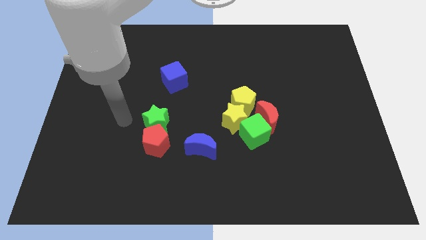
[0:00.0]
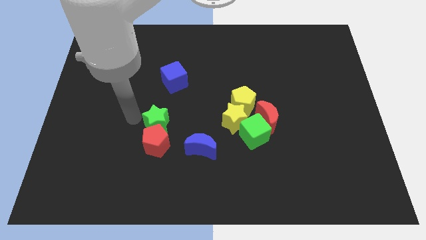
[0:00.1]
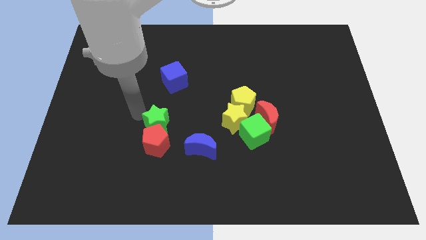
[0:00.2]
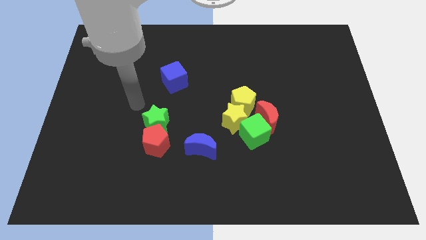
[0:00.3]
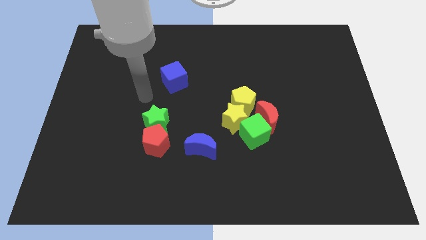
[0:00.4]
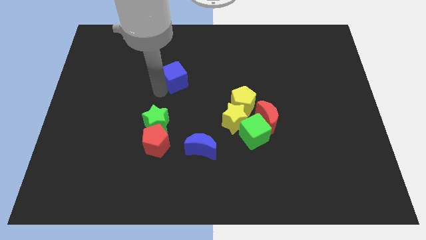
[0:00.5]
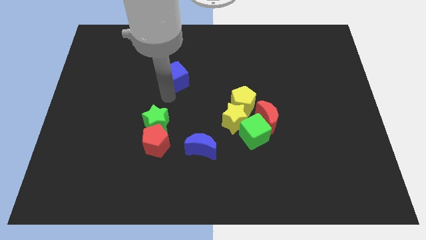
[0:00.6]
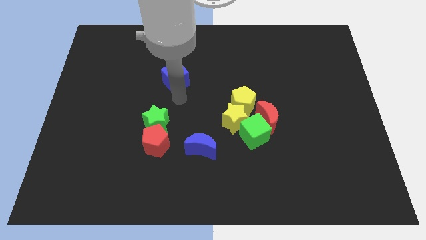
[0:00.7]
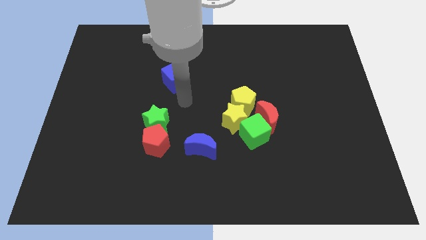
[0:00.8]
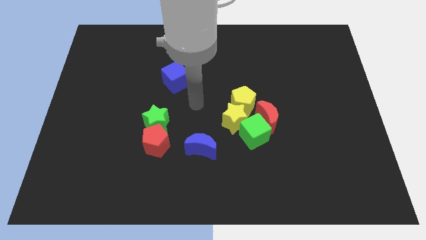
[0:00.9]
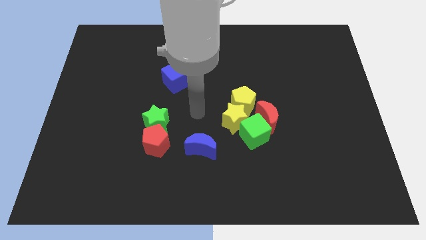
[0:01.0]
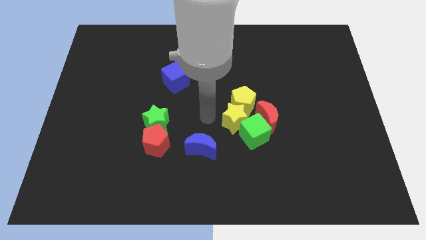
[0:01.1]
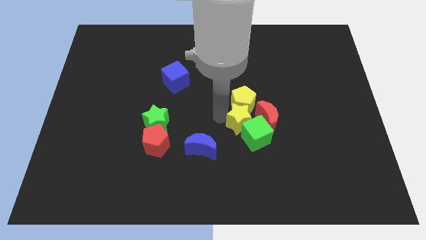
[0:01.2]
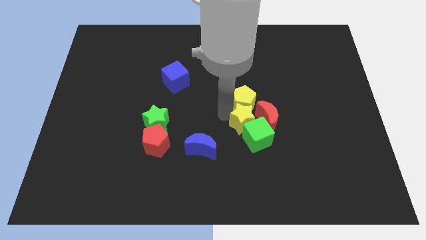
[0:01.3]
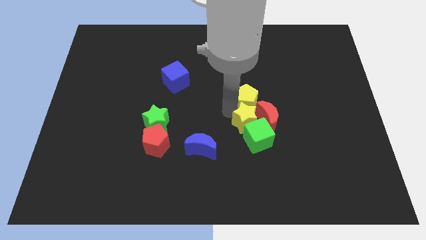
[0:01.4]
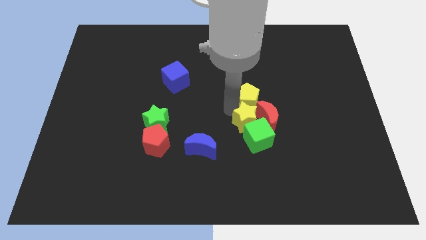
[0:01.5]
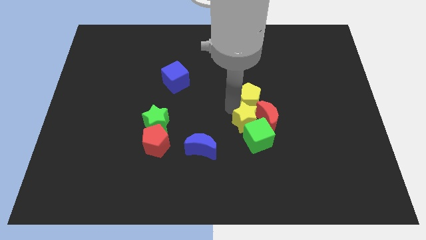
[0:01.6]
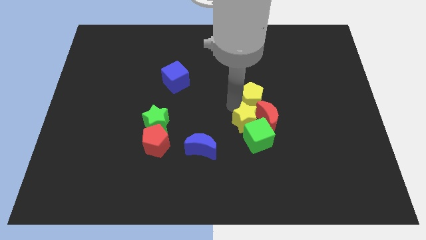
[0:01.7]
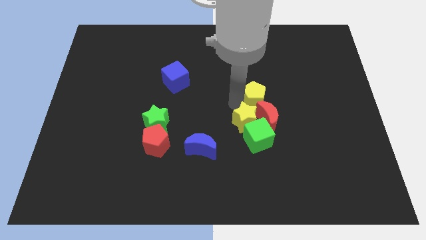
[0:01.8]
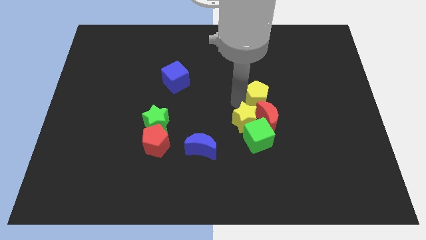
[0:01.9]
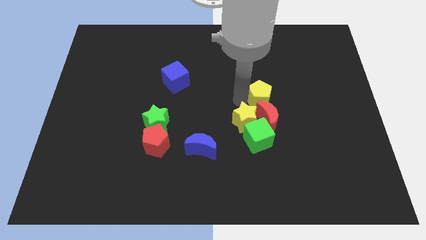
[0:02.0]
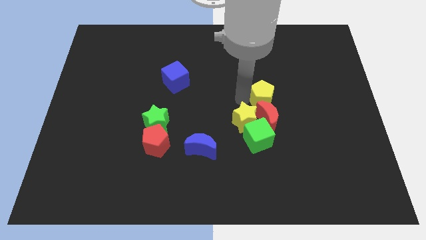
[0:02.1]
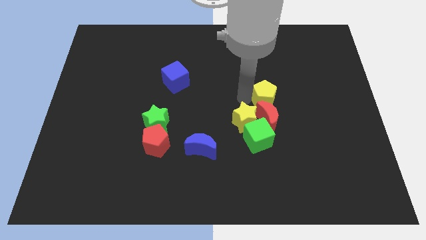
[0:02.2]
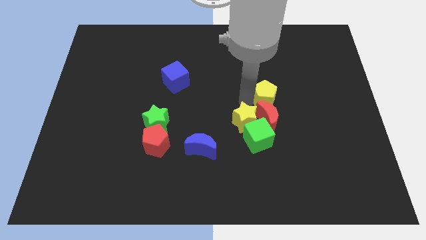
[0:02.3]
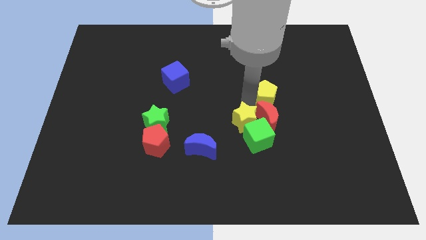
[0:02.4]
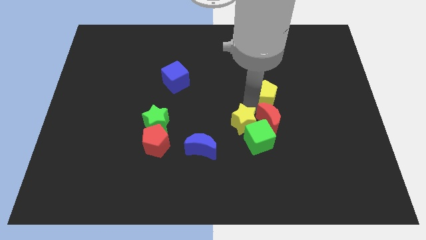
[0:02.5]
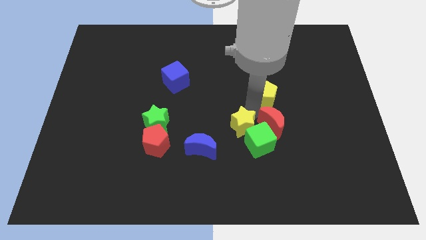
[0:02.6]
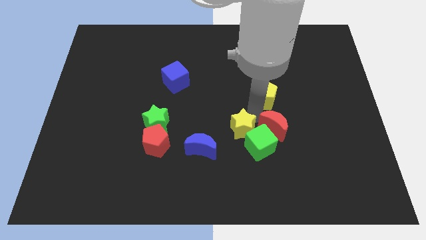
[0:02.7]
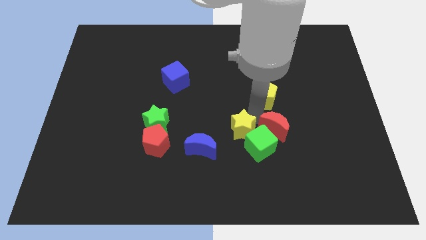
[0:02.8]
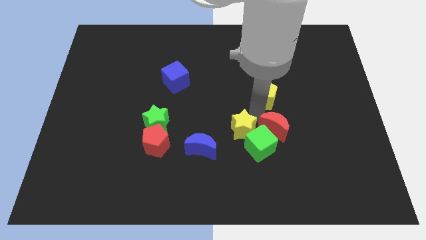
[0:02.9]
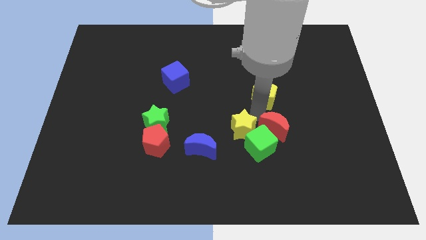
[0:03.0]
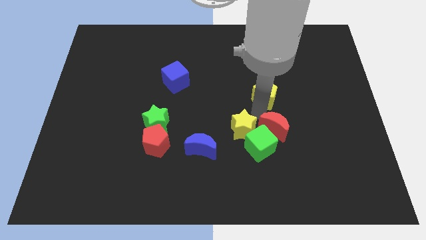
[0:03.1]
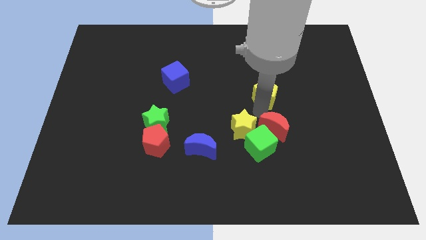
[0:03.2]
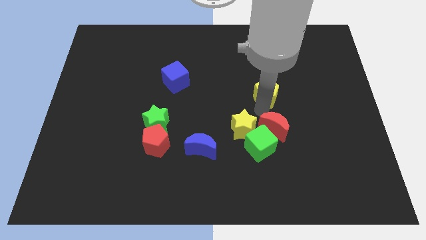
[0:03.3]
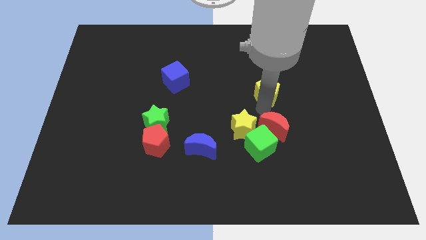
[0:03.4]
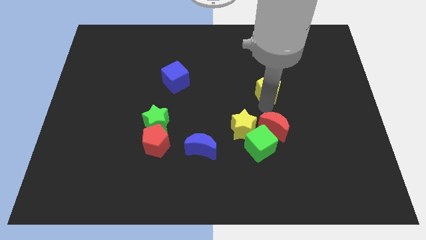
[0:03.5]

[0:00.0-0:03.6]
push the yellow pentagon a little bit up and to the right

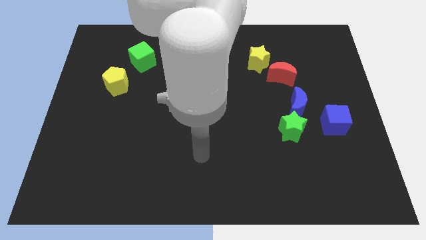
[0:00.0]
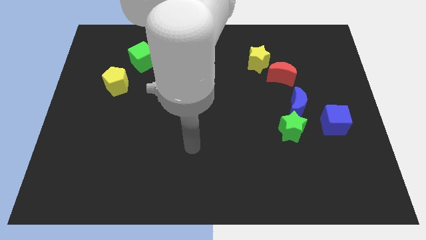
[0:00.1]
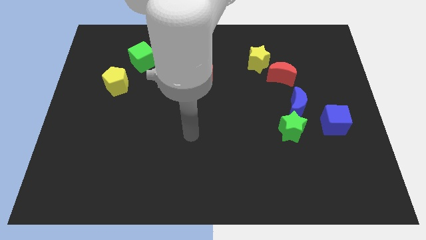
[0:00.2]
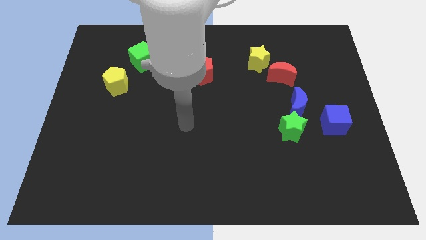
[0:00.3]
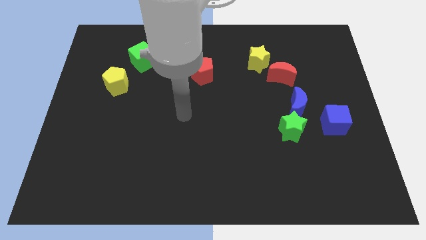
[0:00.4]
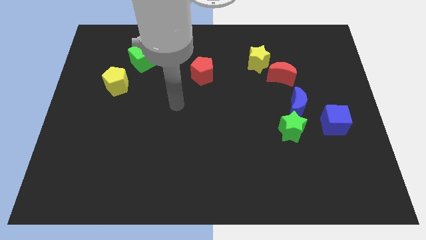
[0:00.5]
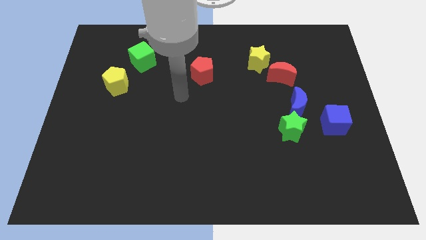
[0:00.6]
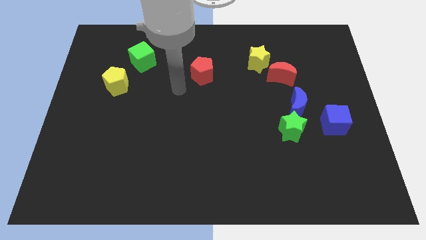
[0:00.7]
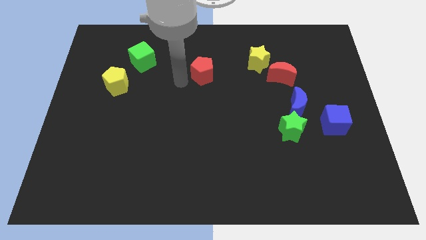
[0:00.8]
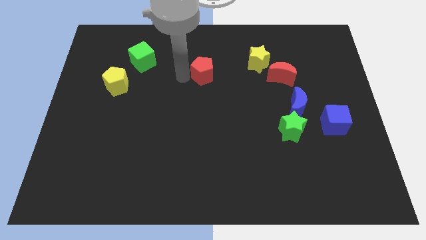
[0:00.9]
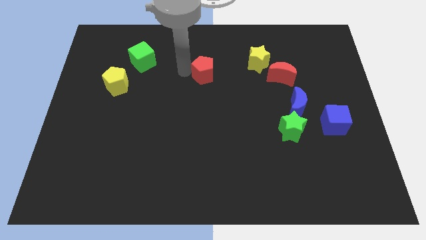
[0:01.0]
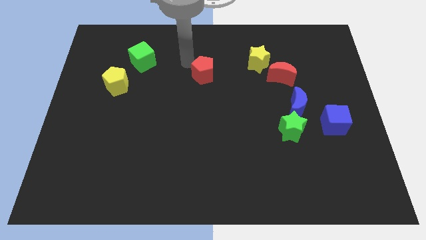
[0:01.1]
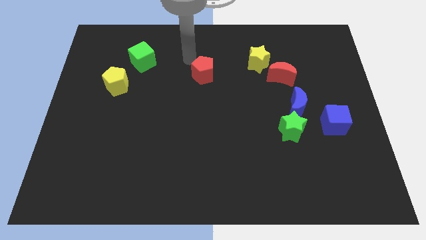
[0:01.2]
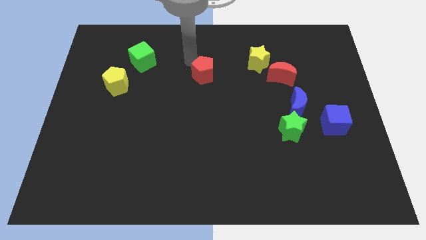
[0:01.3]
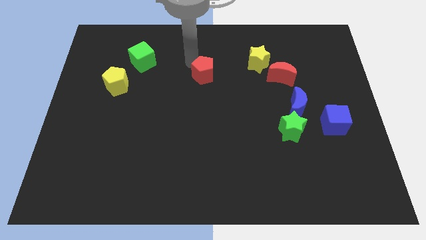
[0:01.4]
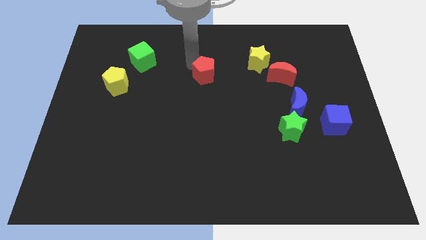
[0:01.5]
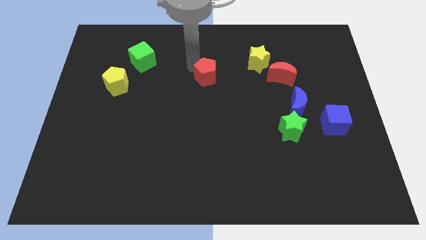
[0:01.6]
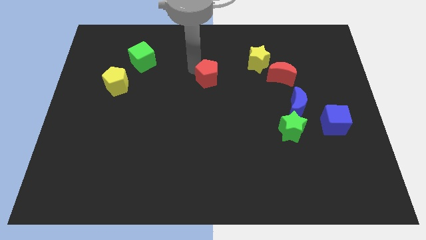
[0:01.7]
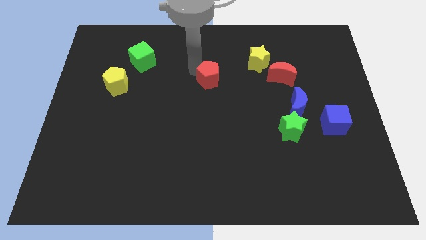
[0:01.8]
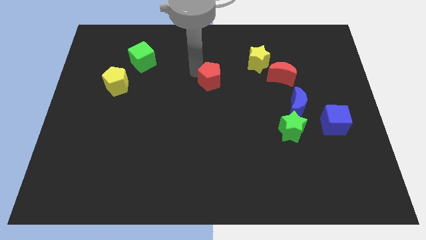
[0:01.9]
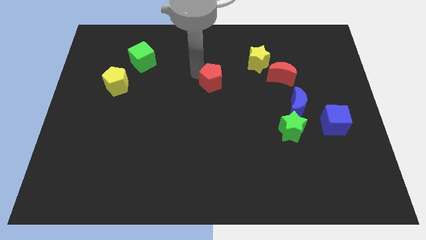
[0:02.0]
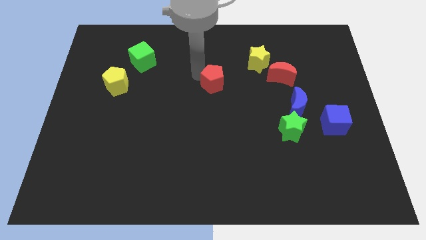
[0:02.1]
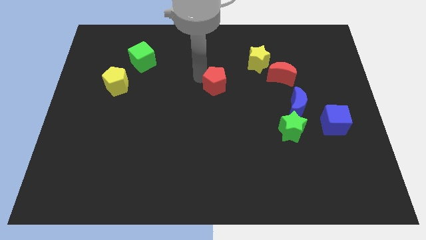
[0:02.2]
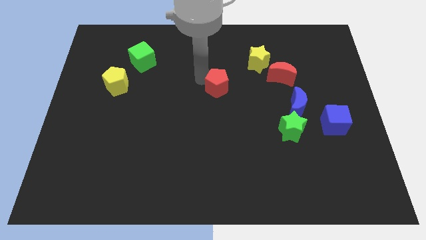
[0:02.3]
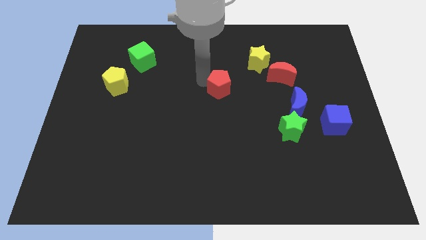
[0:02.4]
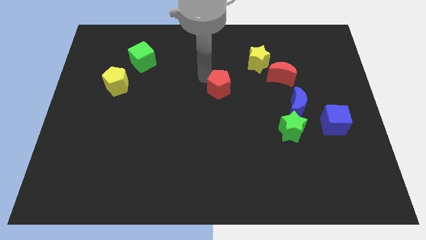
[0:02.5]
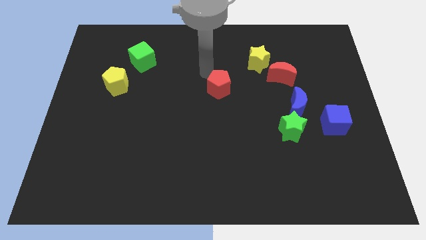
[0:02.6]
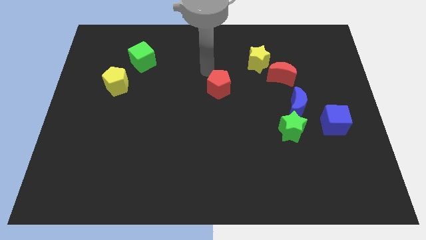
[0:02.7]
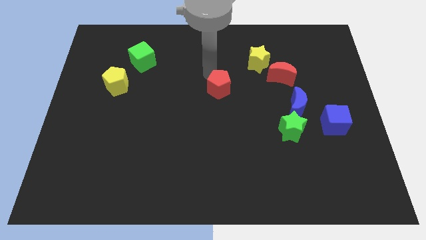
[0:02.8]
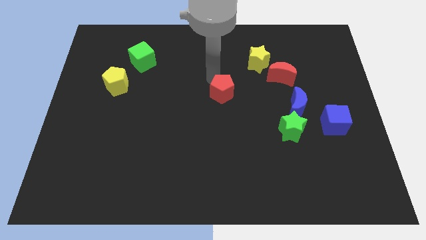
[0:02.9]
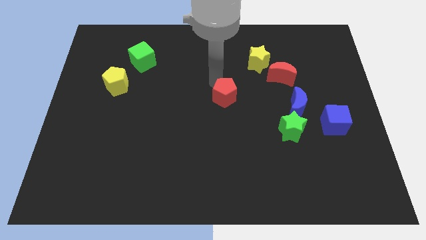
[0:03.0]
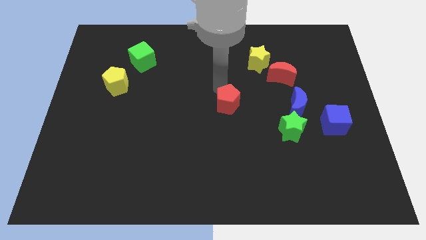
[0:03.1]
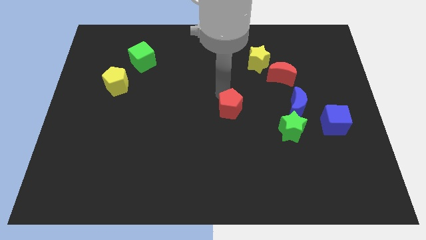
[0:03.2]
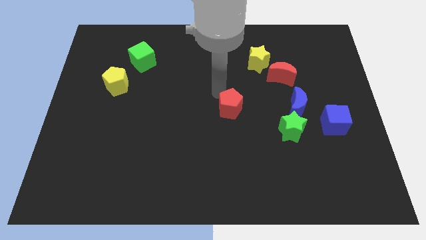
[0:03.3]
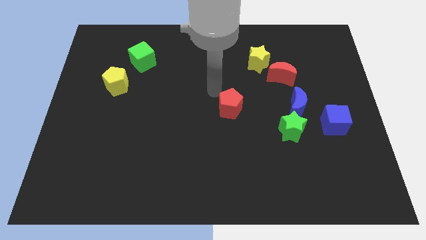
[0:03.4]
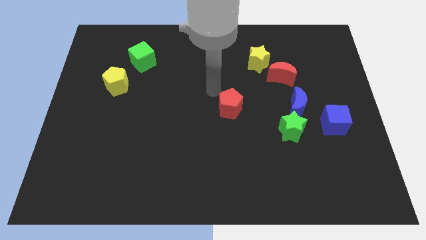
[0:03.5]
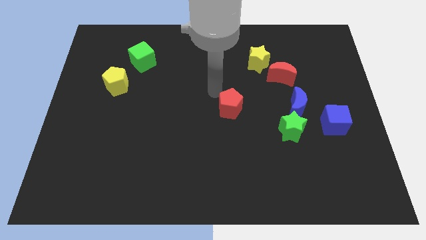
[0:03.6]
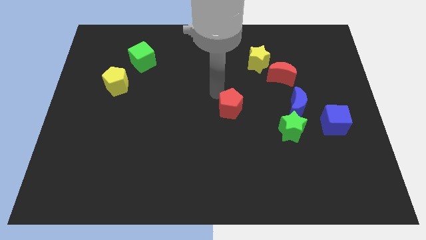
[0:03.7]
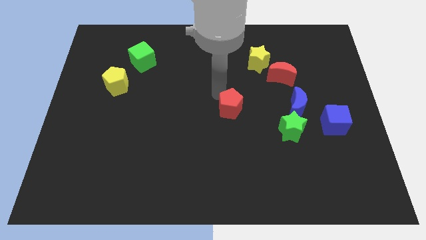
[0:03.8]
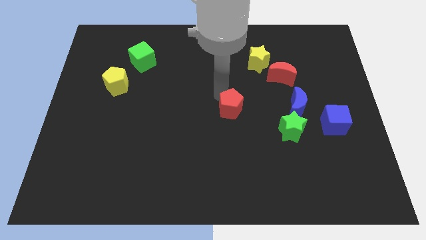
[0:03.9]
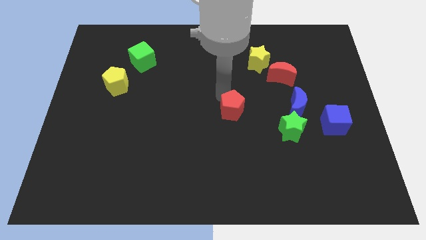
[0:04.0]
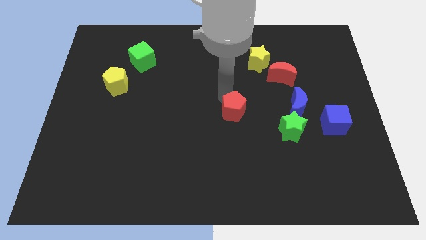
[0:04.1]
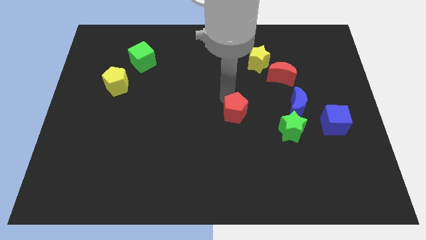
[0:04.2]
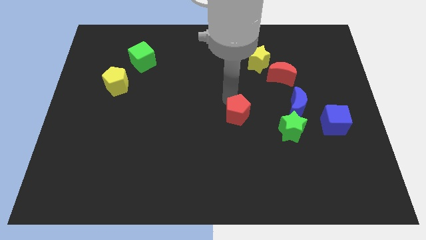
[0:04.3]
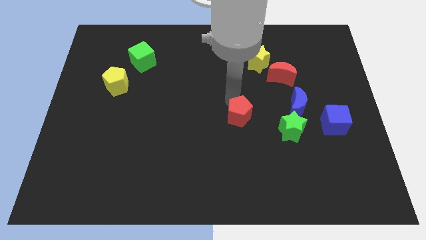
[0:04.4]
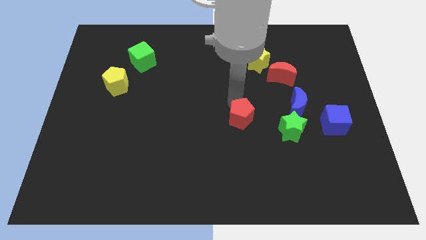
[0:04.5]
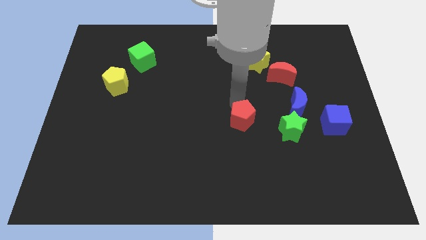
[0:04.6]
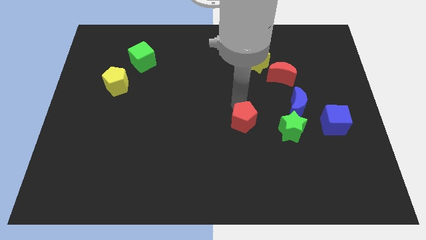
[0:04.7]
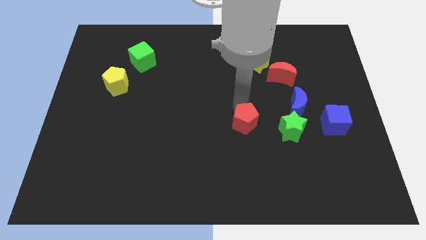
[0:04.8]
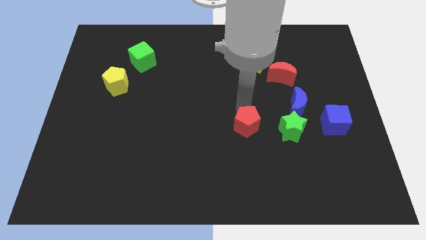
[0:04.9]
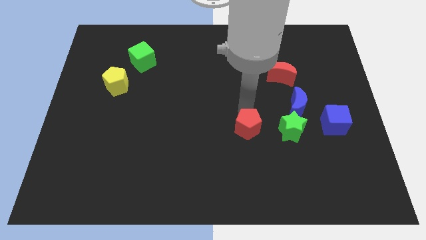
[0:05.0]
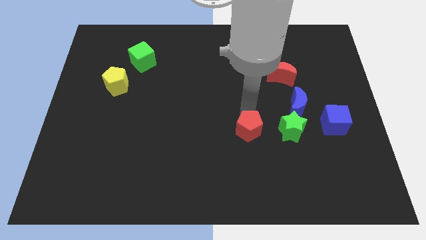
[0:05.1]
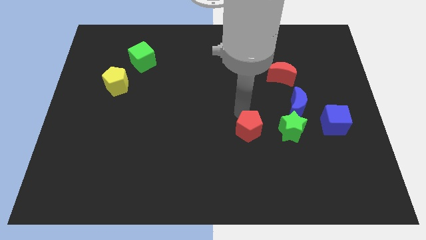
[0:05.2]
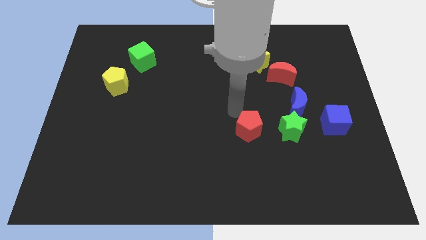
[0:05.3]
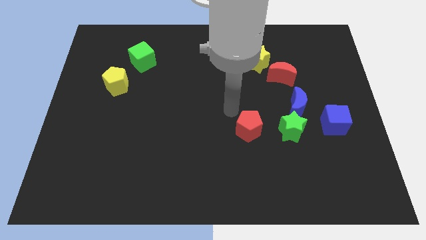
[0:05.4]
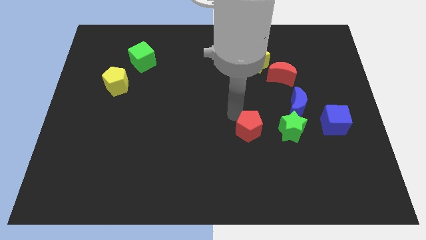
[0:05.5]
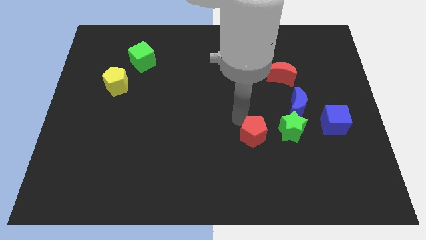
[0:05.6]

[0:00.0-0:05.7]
push the red pentagon down and then to the right
